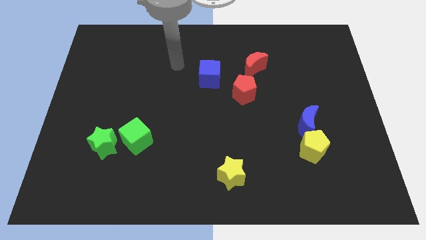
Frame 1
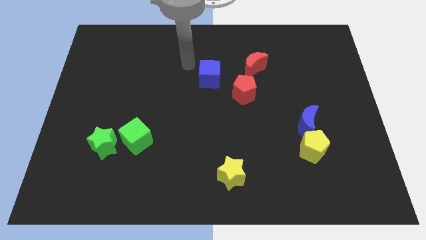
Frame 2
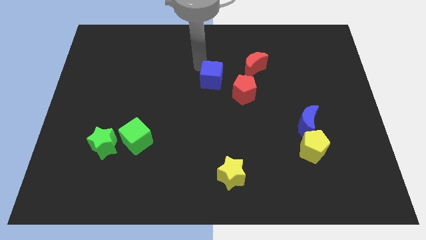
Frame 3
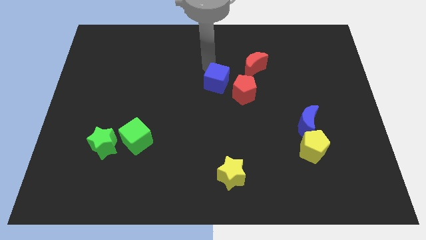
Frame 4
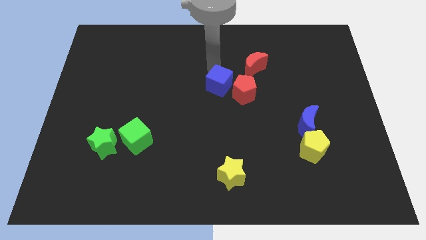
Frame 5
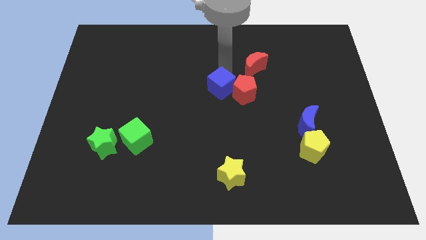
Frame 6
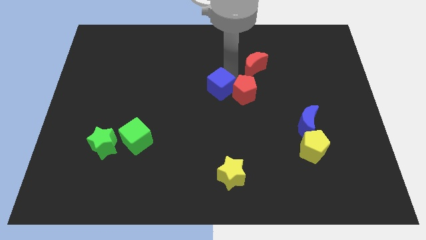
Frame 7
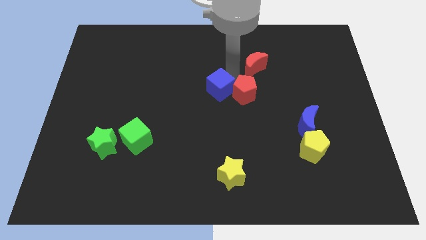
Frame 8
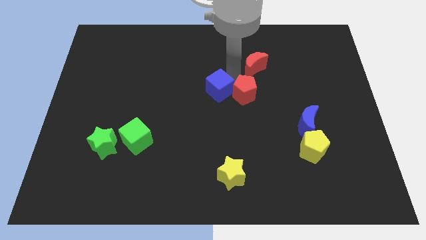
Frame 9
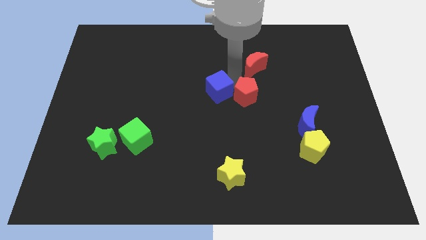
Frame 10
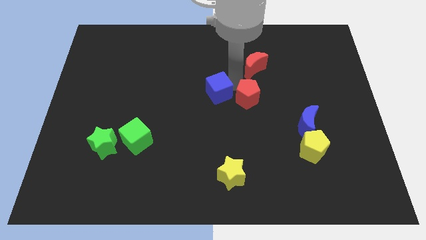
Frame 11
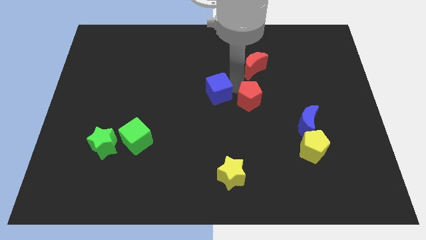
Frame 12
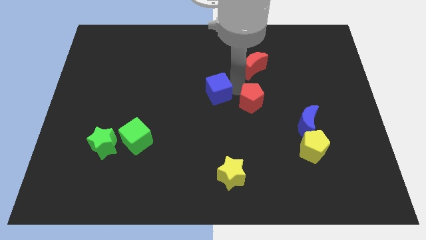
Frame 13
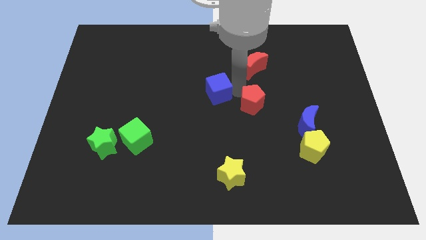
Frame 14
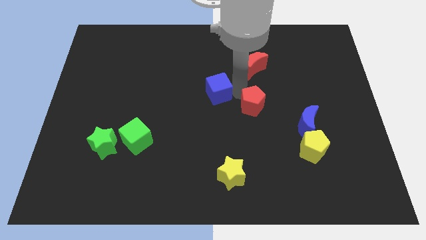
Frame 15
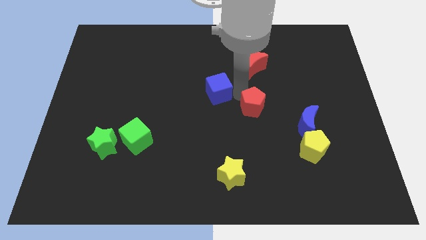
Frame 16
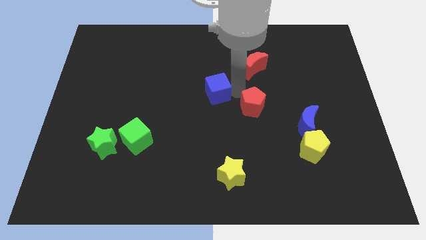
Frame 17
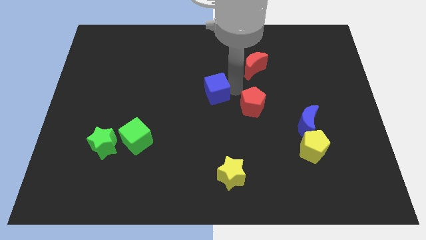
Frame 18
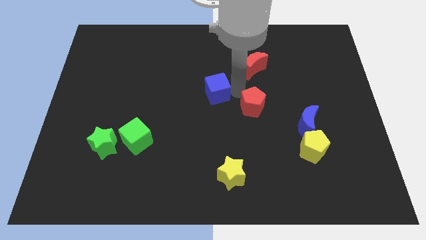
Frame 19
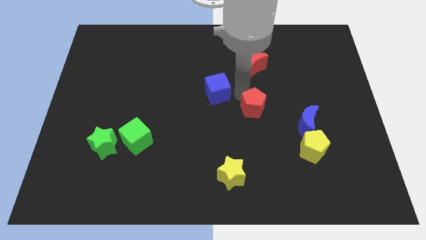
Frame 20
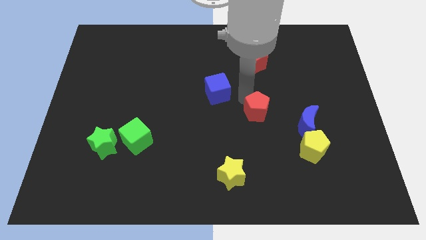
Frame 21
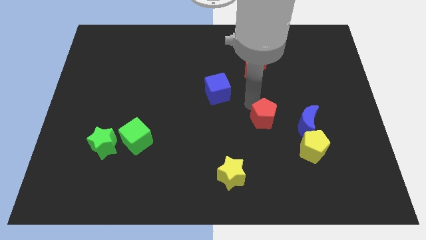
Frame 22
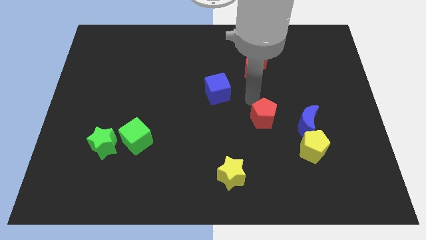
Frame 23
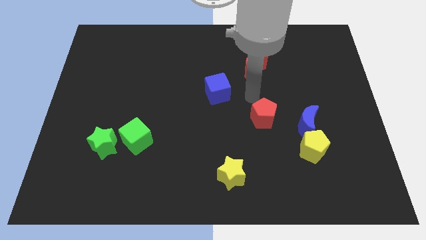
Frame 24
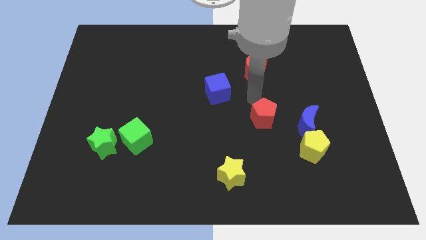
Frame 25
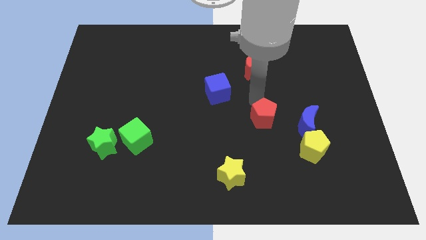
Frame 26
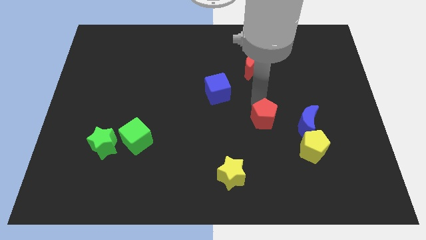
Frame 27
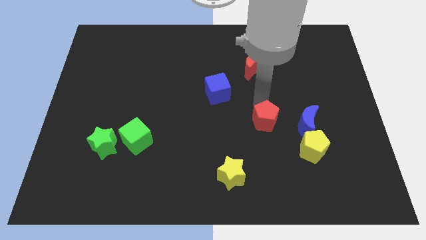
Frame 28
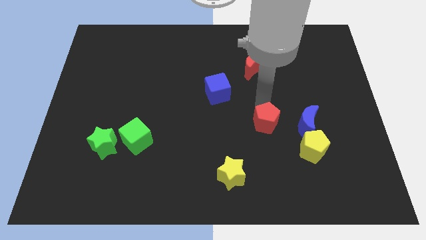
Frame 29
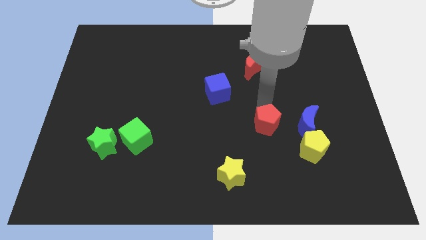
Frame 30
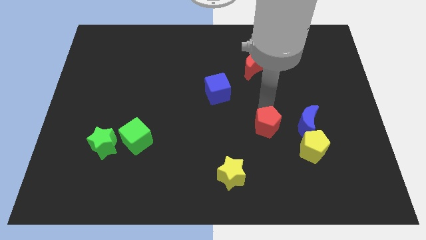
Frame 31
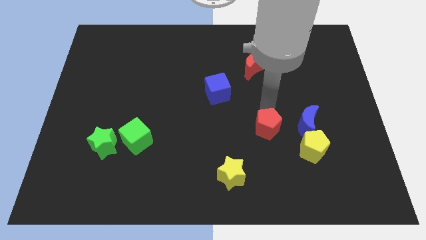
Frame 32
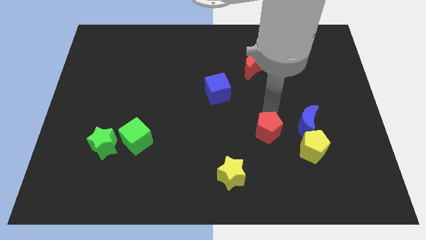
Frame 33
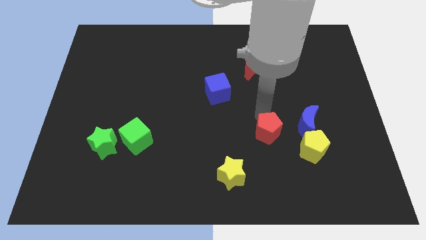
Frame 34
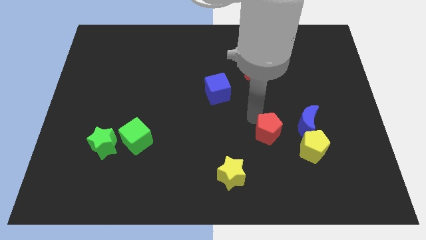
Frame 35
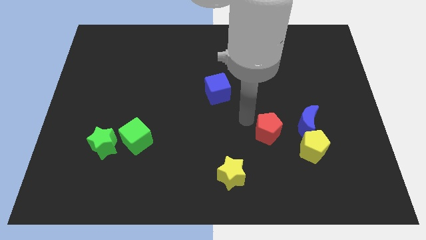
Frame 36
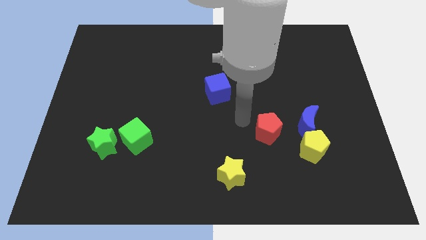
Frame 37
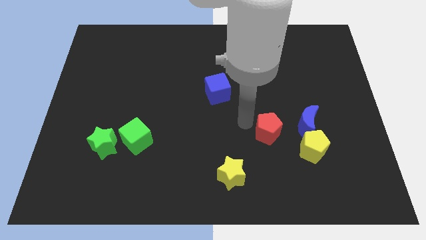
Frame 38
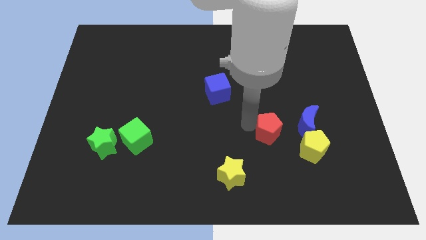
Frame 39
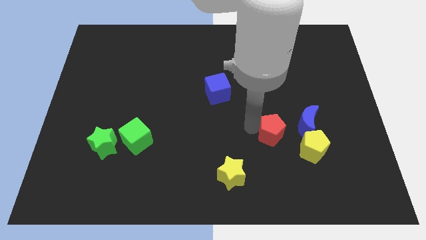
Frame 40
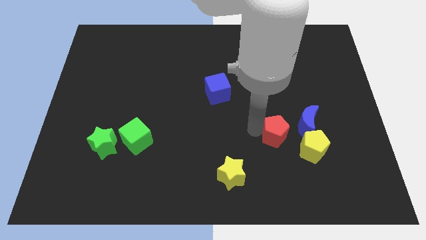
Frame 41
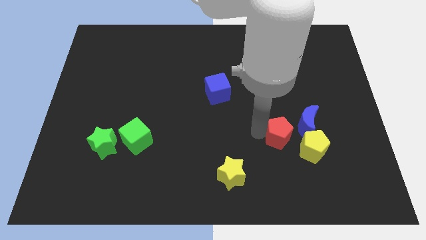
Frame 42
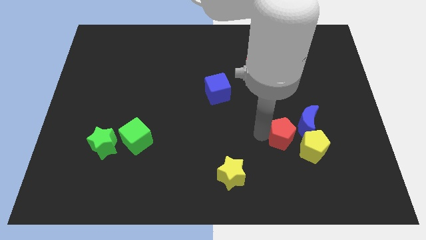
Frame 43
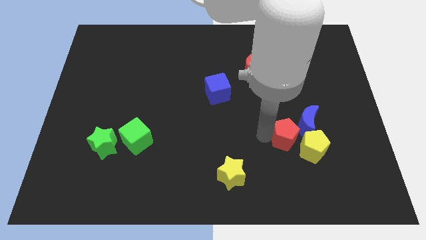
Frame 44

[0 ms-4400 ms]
push the red pentagon towards the yellow pentagon

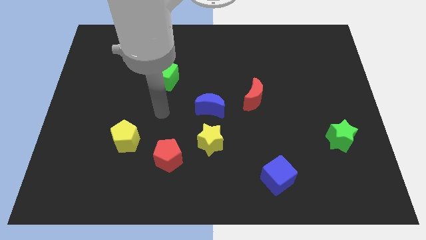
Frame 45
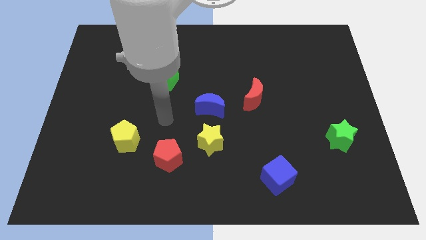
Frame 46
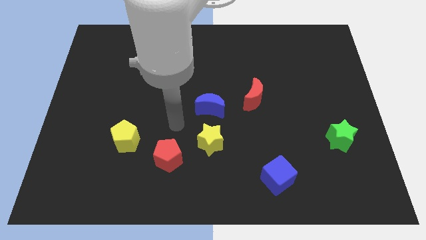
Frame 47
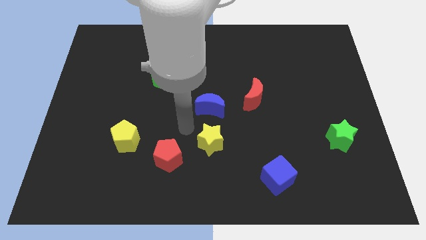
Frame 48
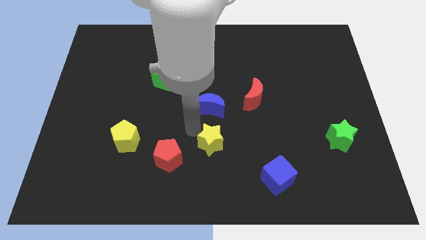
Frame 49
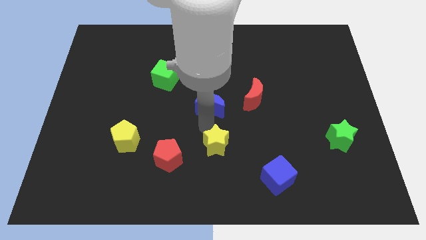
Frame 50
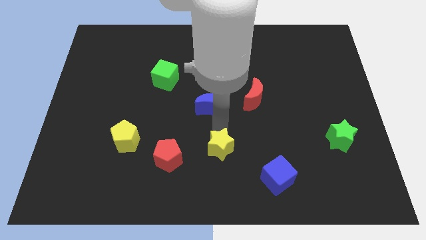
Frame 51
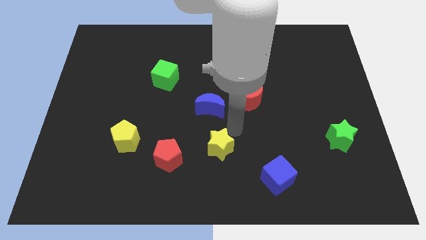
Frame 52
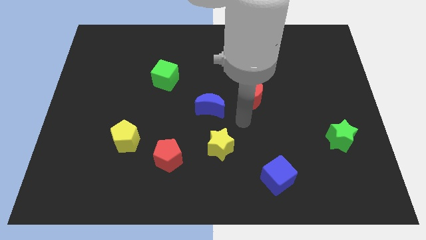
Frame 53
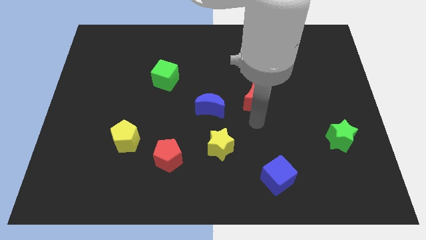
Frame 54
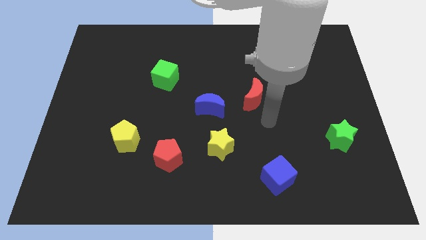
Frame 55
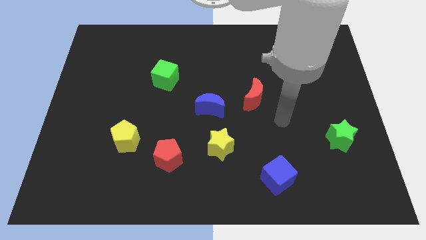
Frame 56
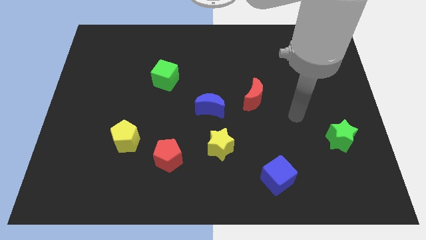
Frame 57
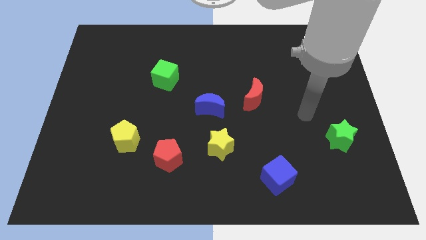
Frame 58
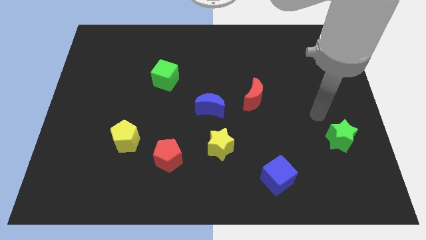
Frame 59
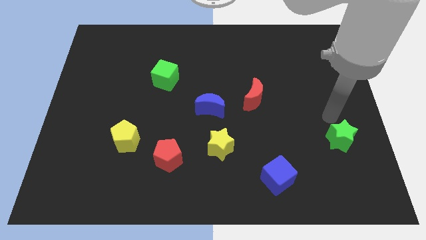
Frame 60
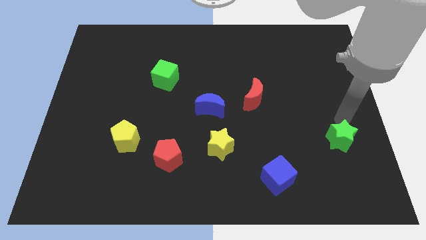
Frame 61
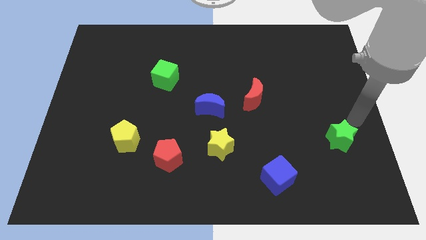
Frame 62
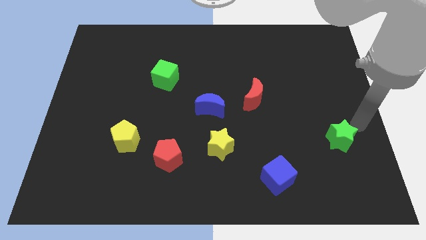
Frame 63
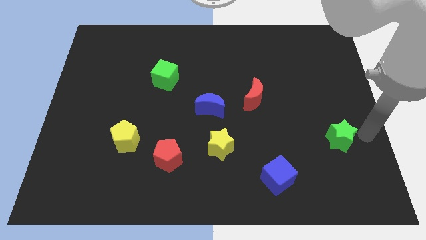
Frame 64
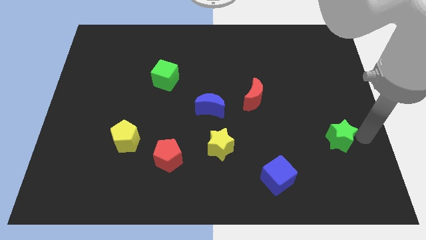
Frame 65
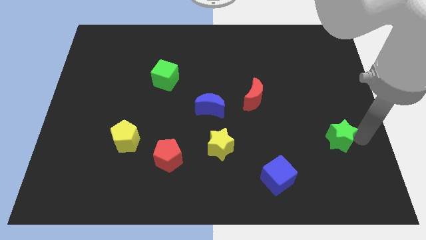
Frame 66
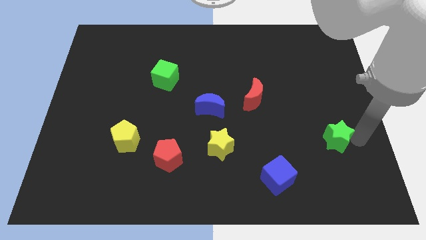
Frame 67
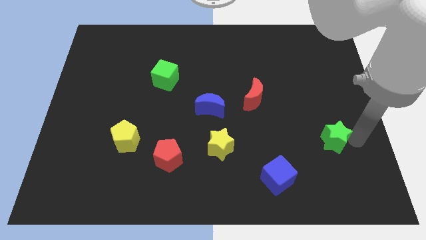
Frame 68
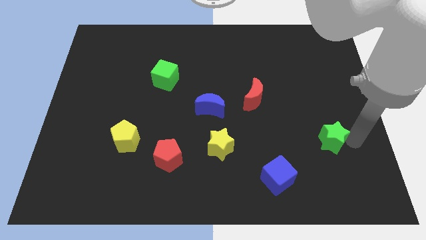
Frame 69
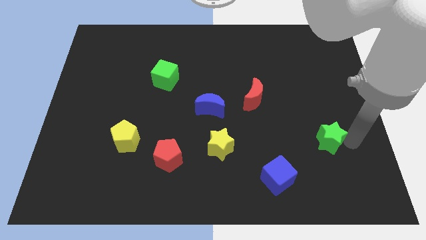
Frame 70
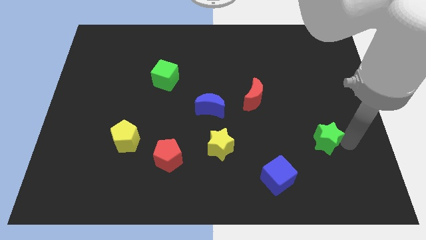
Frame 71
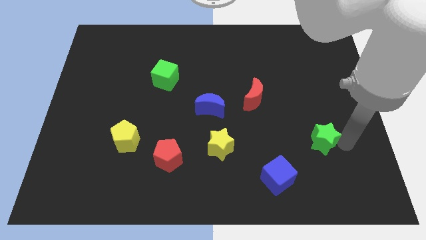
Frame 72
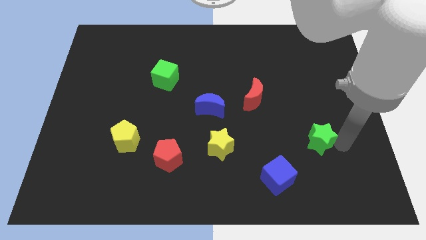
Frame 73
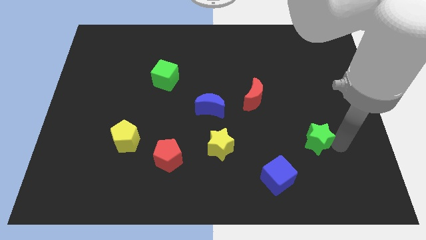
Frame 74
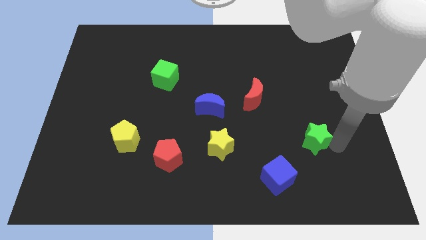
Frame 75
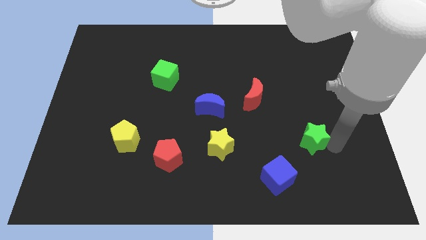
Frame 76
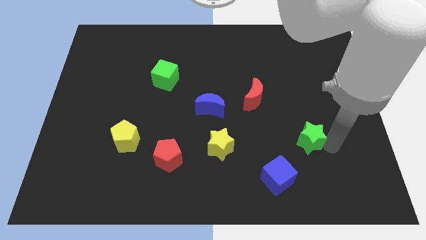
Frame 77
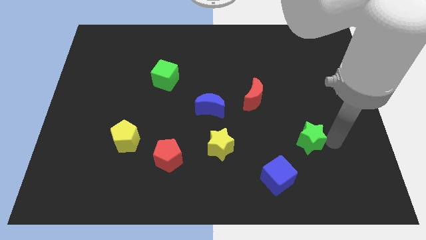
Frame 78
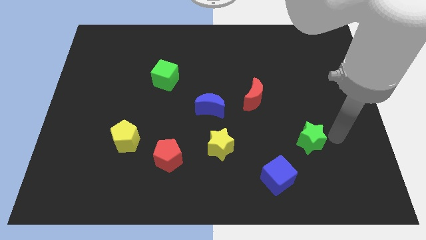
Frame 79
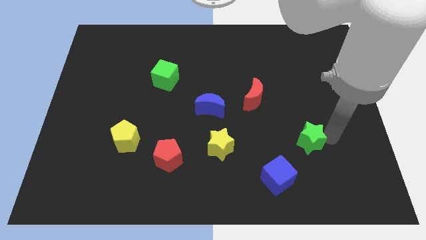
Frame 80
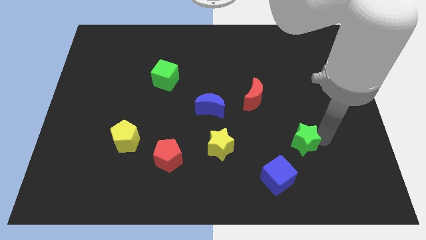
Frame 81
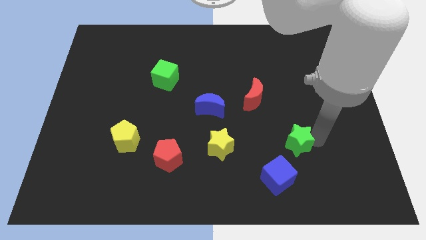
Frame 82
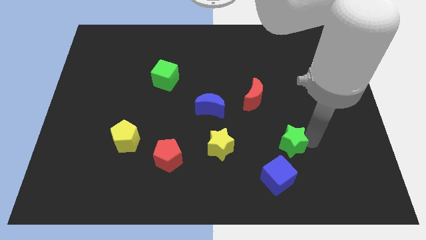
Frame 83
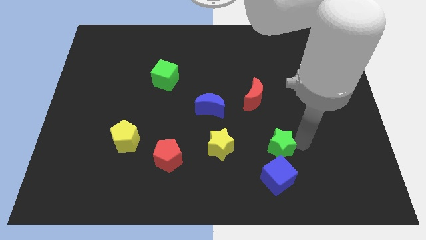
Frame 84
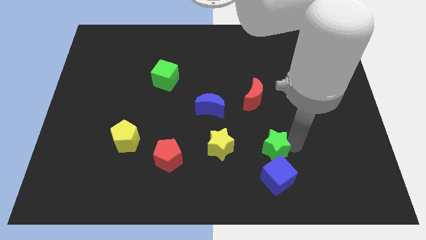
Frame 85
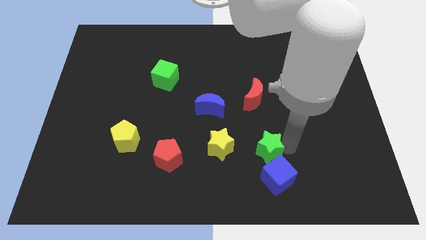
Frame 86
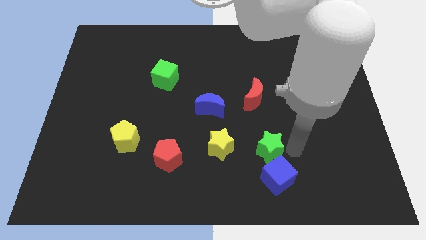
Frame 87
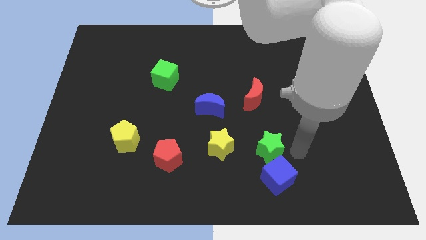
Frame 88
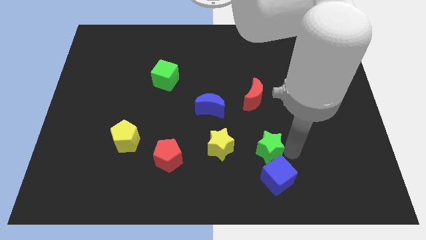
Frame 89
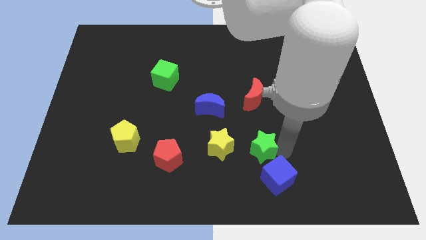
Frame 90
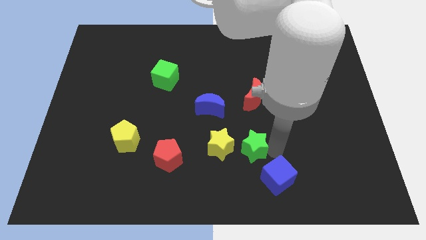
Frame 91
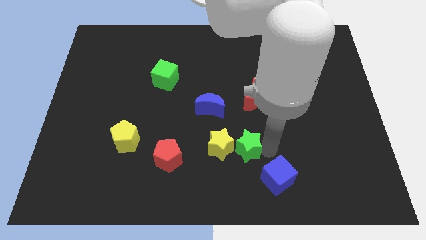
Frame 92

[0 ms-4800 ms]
slide the green star towards the yellow star
